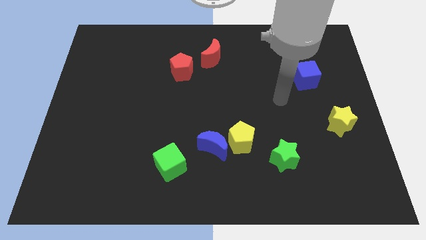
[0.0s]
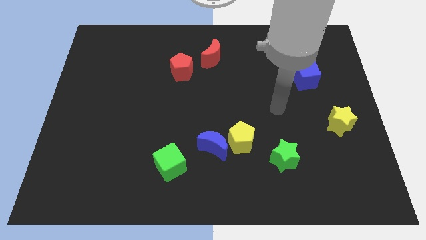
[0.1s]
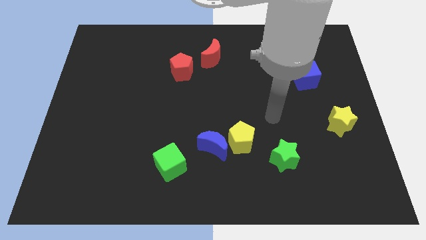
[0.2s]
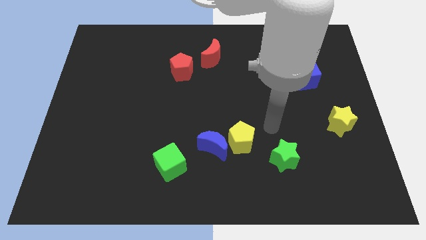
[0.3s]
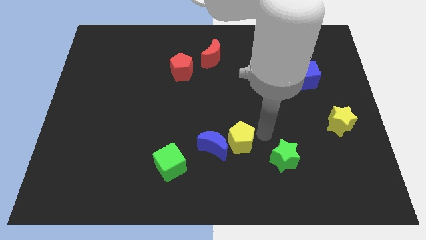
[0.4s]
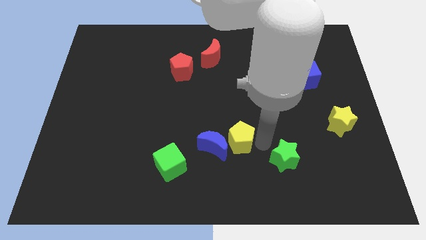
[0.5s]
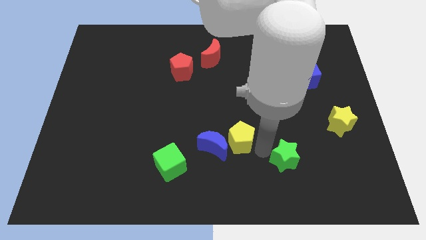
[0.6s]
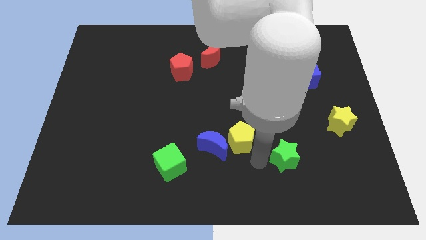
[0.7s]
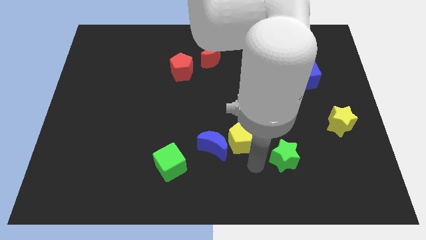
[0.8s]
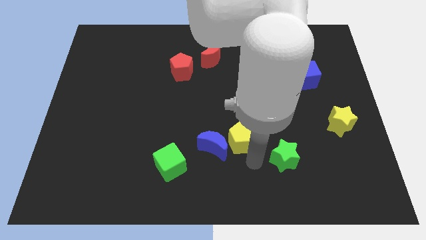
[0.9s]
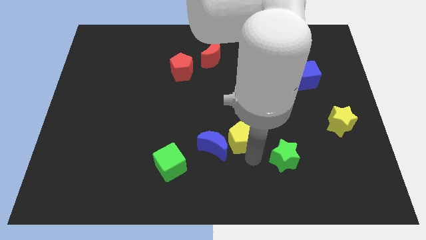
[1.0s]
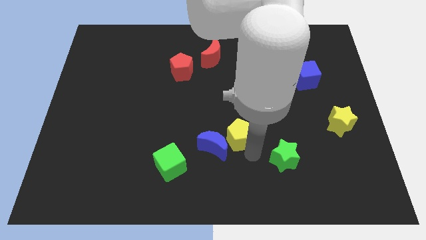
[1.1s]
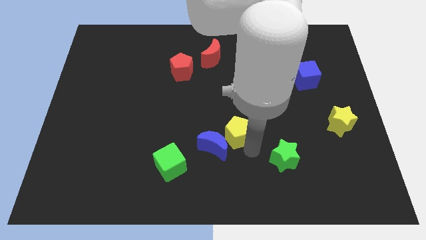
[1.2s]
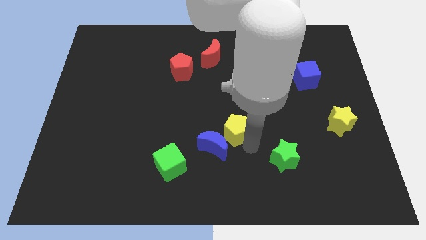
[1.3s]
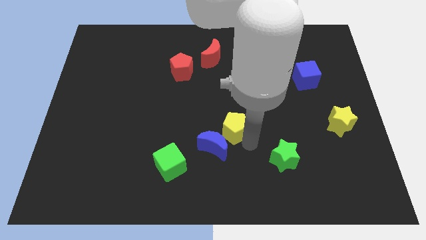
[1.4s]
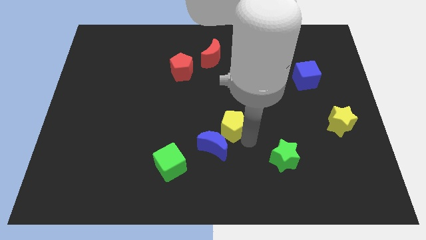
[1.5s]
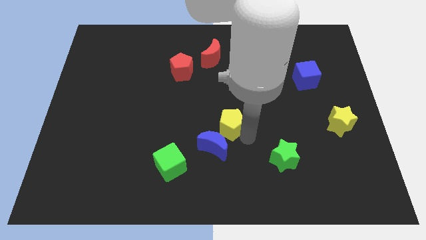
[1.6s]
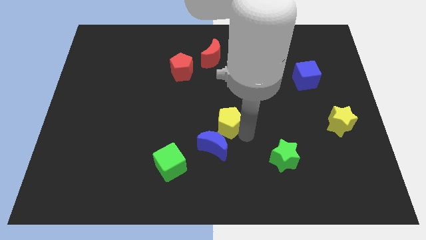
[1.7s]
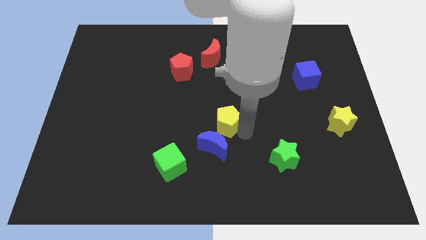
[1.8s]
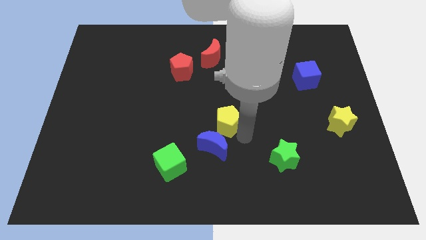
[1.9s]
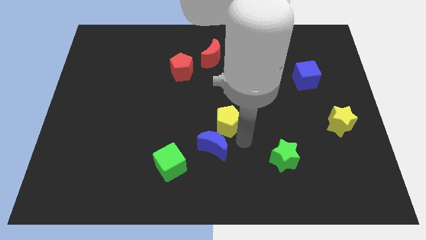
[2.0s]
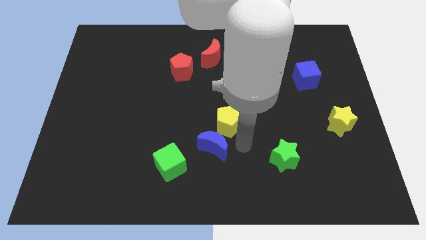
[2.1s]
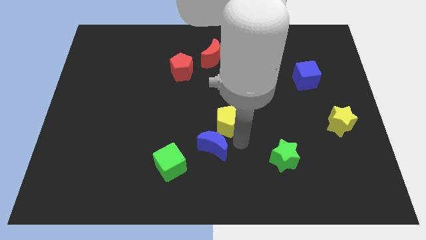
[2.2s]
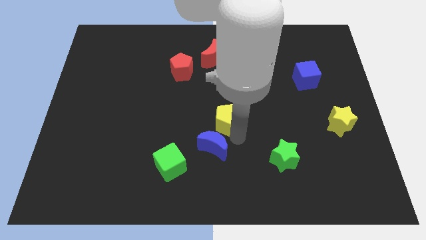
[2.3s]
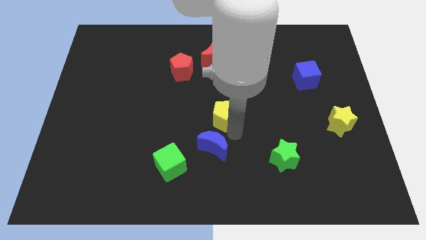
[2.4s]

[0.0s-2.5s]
move the yellow pentagon away from the blue moon and green star

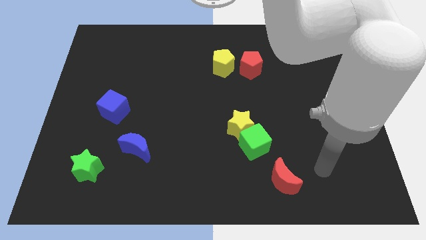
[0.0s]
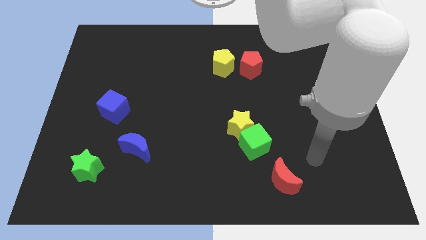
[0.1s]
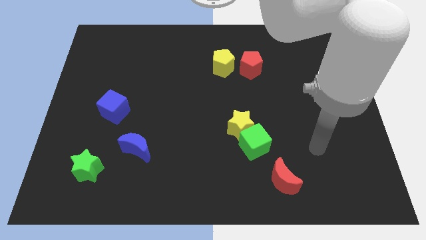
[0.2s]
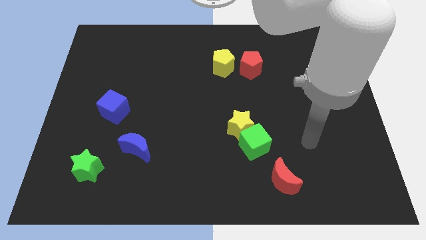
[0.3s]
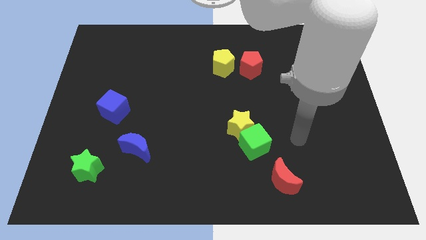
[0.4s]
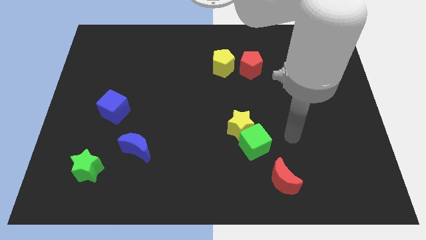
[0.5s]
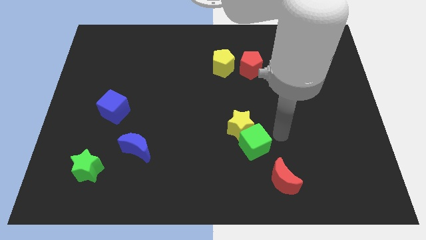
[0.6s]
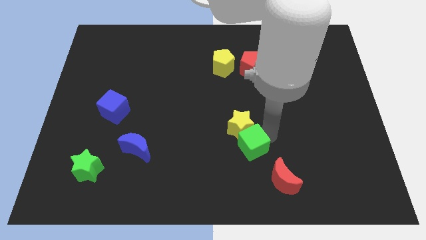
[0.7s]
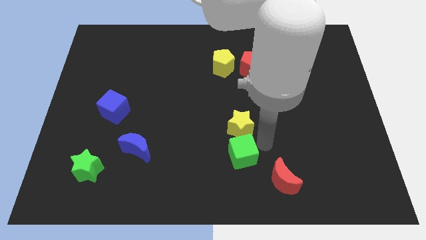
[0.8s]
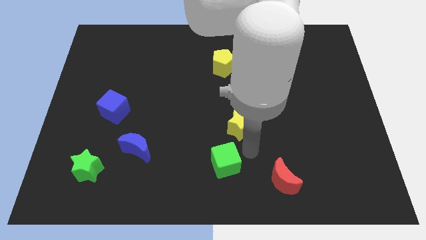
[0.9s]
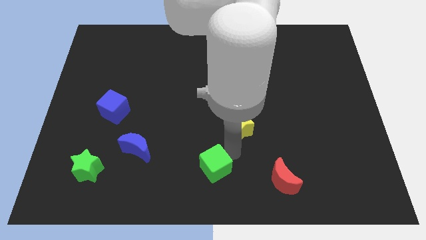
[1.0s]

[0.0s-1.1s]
separate the yellow star from the green cube

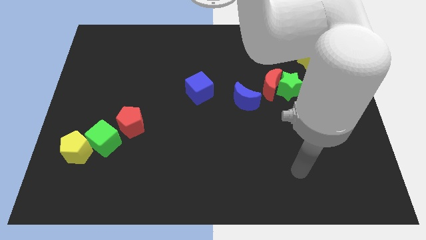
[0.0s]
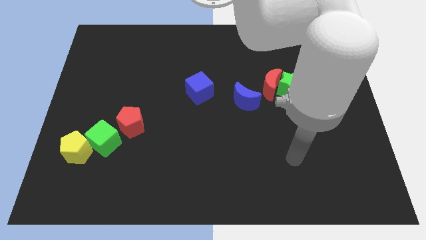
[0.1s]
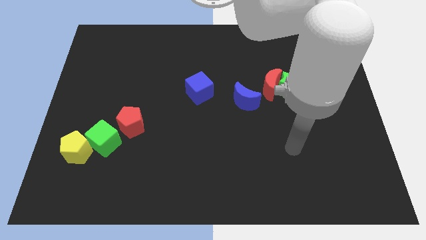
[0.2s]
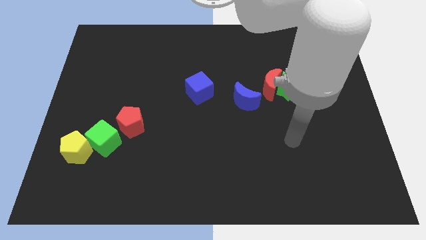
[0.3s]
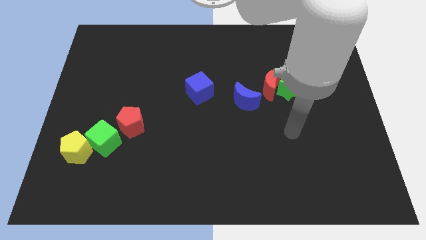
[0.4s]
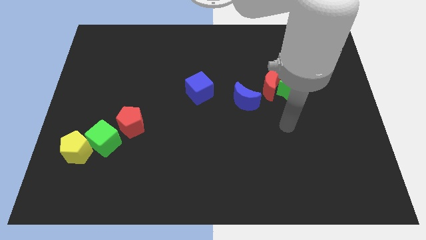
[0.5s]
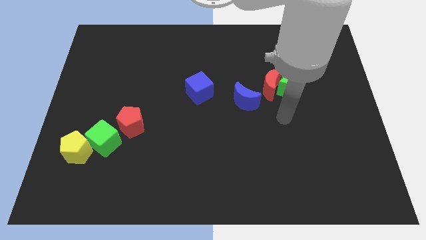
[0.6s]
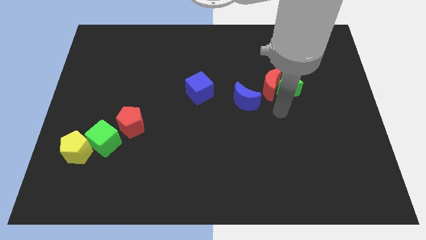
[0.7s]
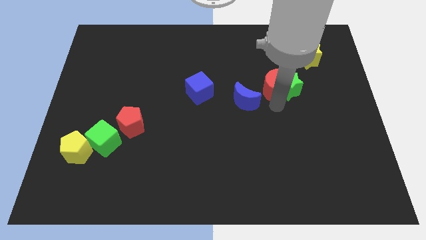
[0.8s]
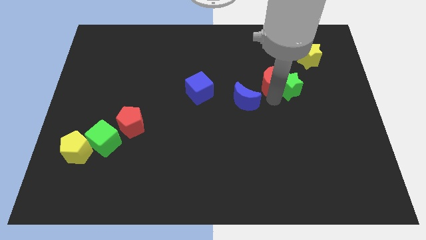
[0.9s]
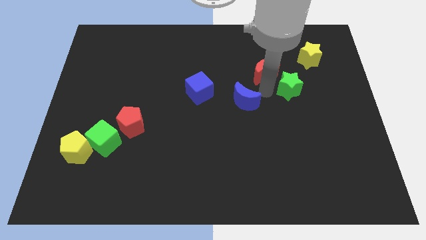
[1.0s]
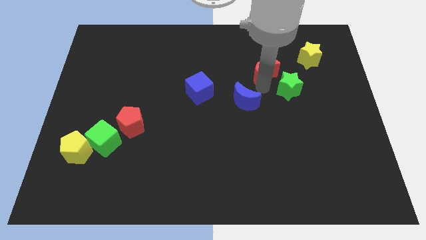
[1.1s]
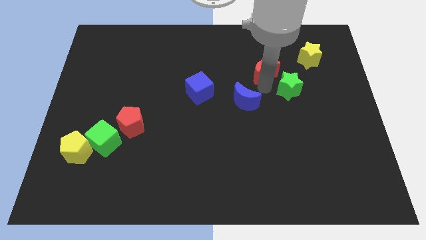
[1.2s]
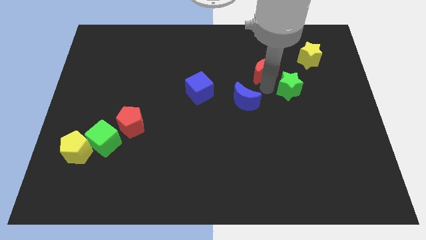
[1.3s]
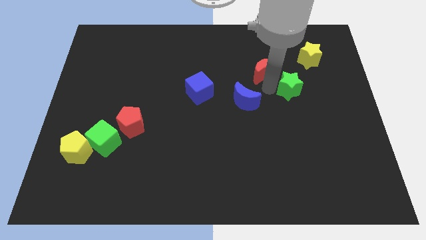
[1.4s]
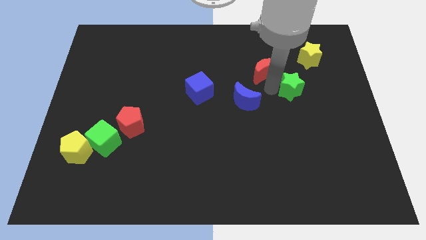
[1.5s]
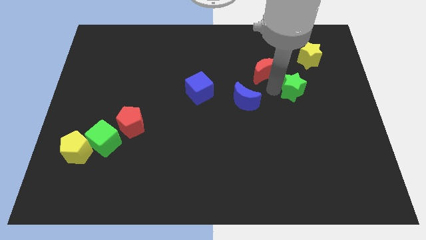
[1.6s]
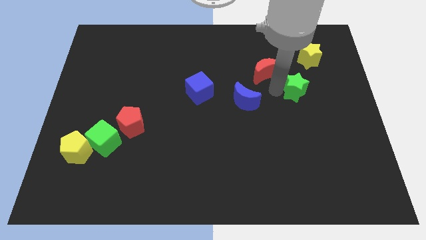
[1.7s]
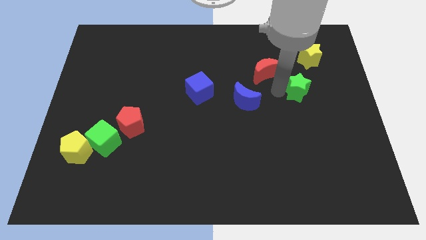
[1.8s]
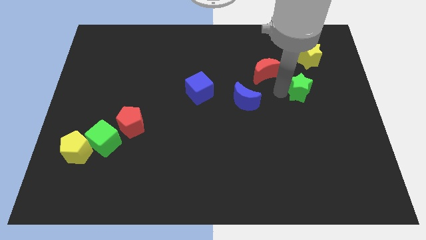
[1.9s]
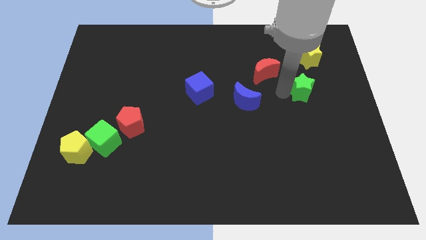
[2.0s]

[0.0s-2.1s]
pull the green star apart from the red moon

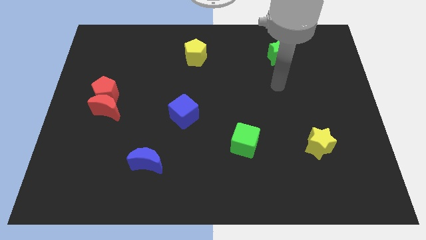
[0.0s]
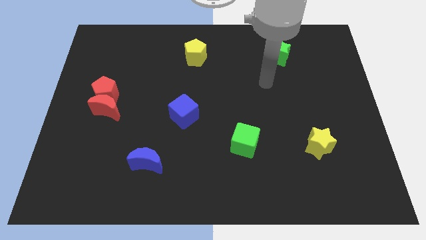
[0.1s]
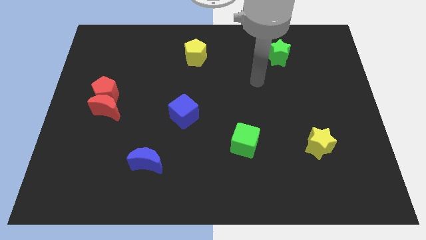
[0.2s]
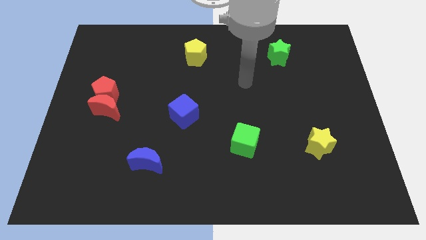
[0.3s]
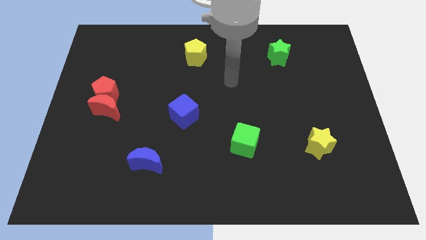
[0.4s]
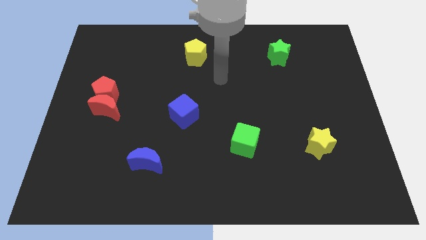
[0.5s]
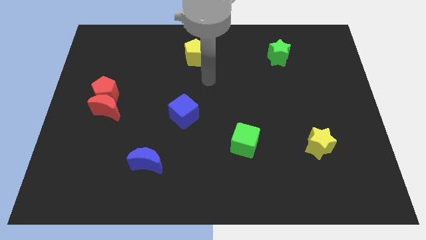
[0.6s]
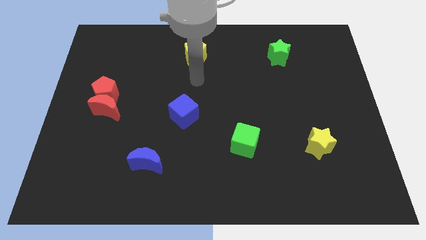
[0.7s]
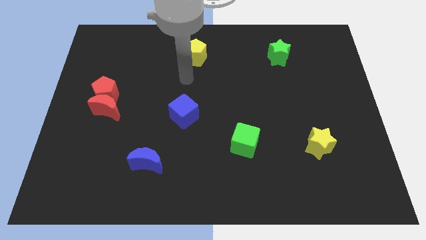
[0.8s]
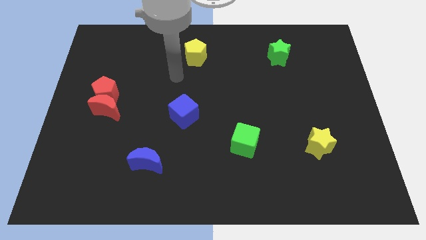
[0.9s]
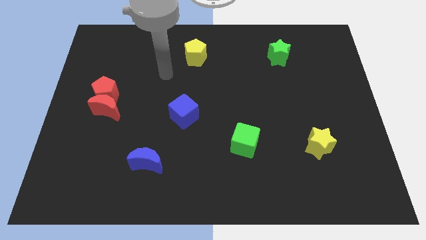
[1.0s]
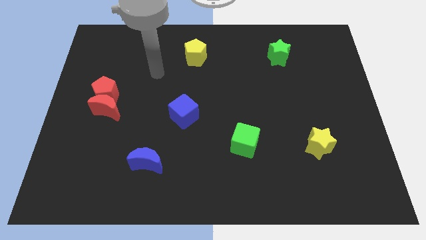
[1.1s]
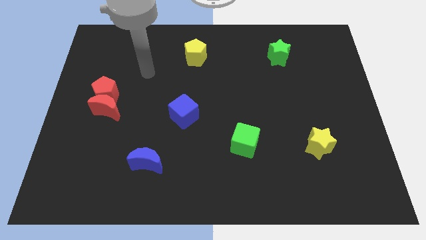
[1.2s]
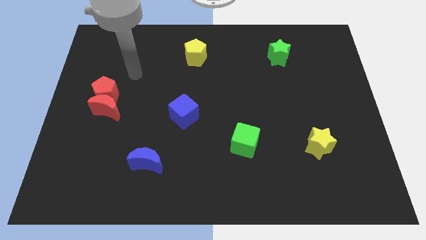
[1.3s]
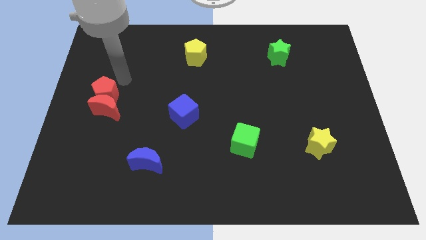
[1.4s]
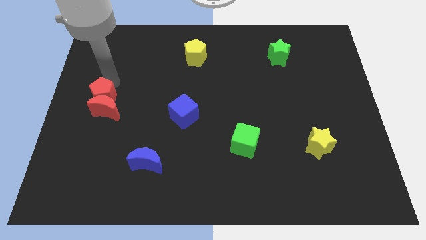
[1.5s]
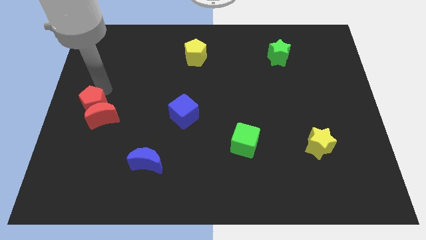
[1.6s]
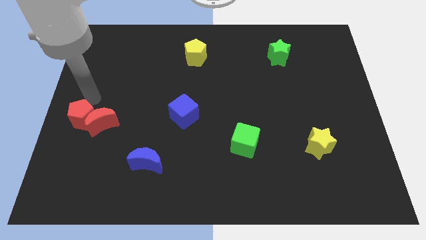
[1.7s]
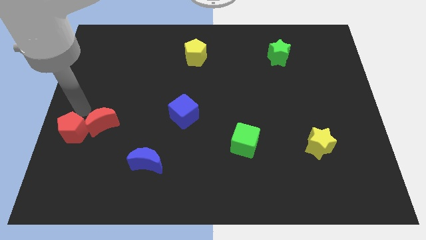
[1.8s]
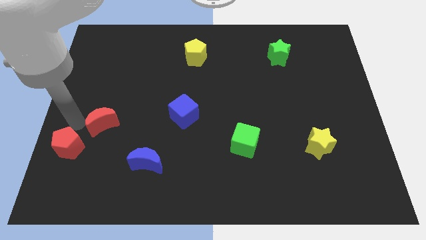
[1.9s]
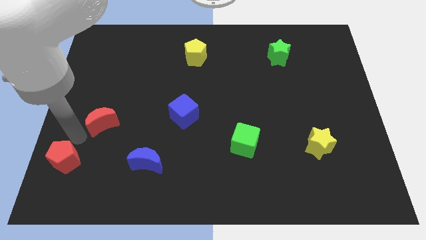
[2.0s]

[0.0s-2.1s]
separate the red moon from the red pentagon

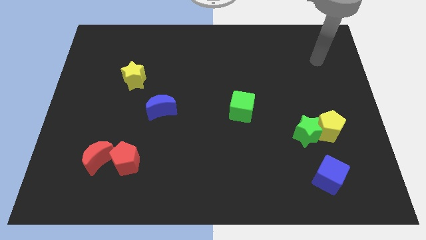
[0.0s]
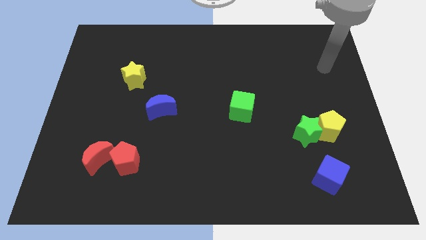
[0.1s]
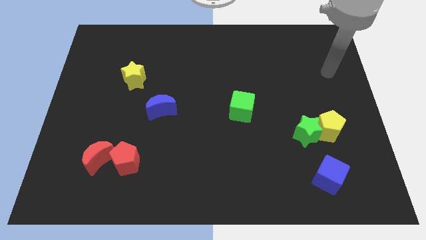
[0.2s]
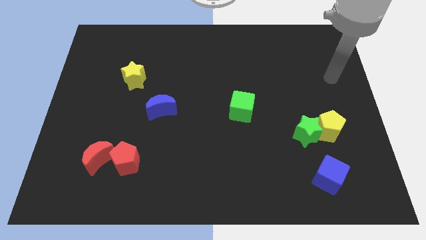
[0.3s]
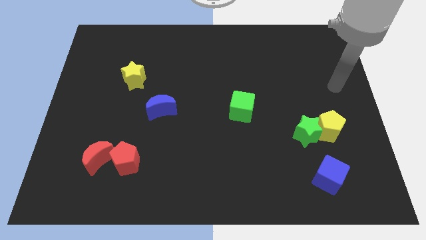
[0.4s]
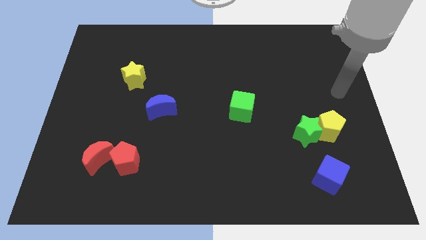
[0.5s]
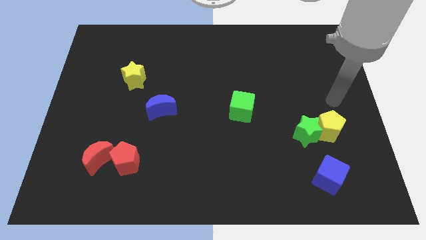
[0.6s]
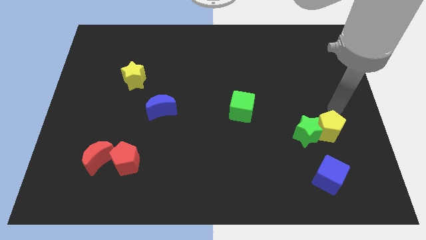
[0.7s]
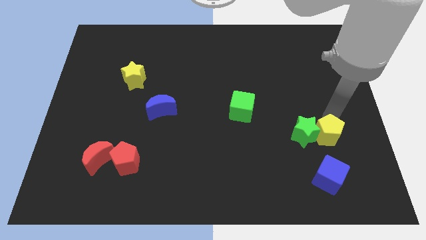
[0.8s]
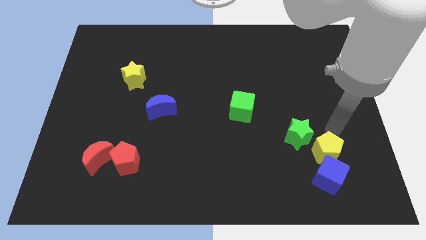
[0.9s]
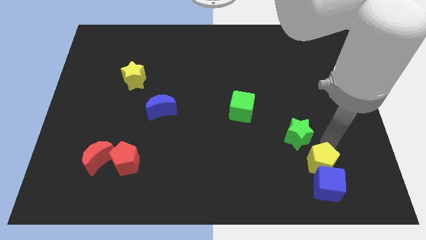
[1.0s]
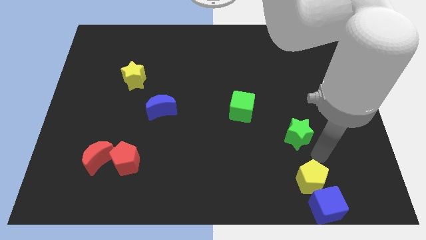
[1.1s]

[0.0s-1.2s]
move the green star away from the yellow pentagon

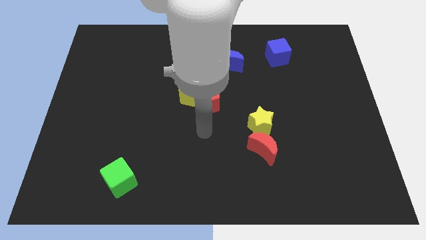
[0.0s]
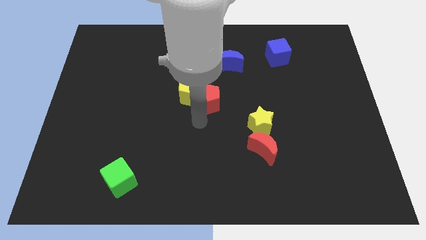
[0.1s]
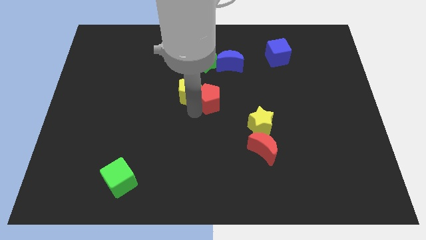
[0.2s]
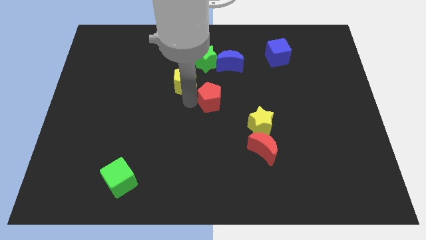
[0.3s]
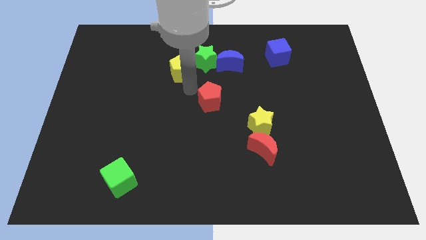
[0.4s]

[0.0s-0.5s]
separate the red pentagon from the yellow pentagon
